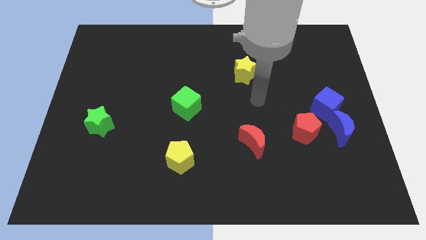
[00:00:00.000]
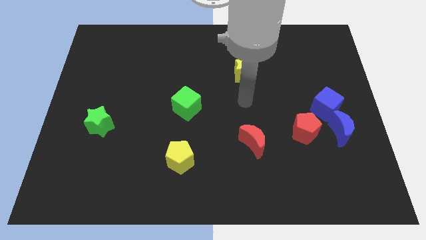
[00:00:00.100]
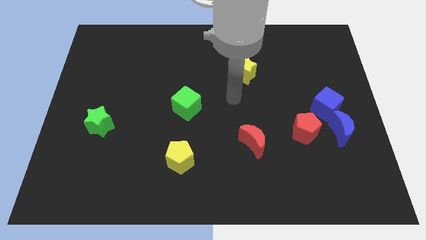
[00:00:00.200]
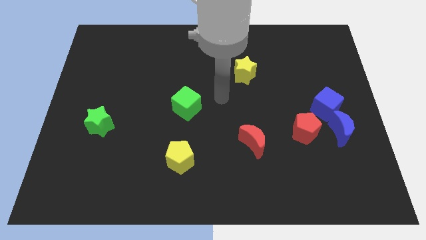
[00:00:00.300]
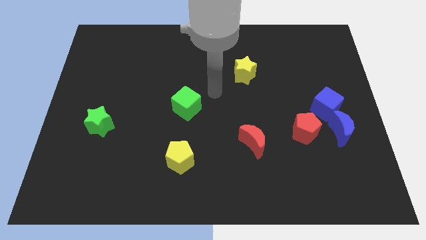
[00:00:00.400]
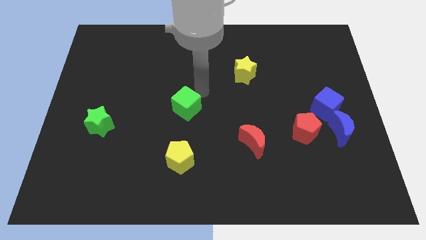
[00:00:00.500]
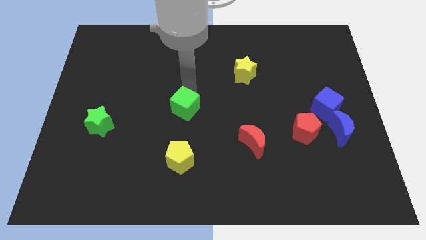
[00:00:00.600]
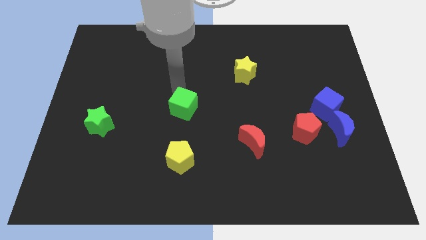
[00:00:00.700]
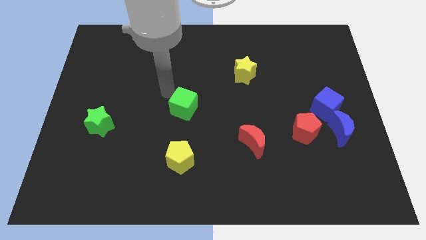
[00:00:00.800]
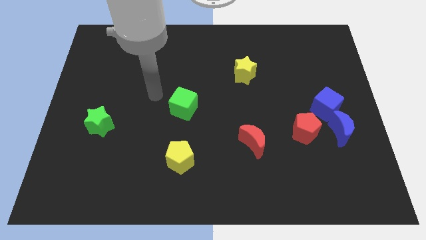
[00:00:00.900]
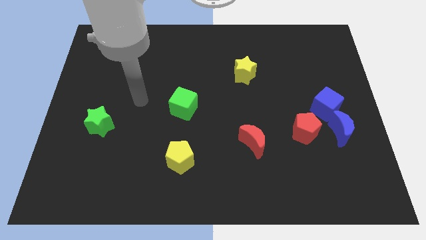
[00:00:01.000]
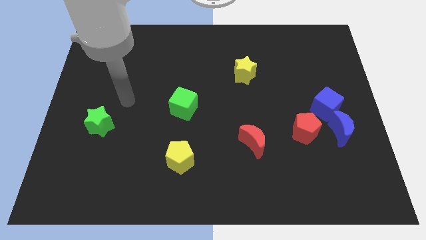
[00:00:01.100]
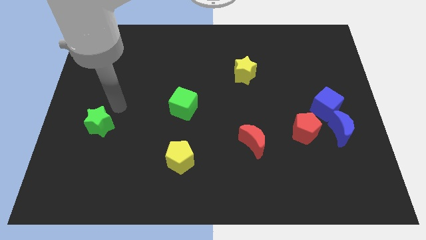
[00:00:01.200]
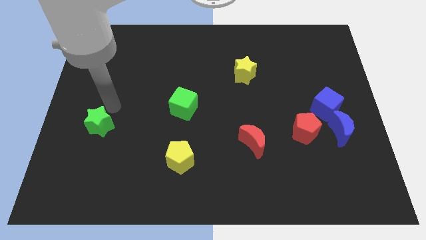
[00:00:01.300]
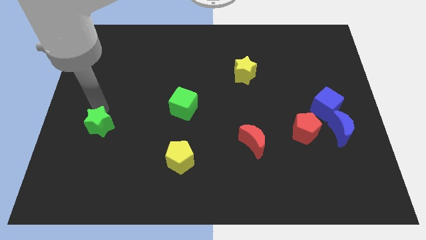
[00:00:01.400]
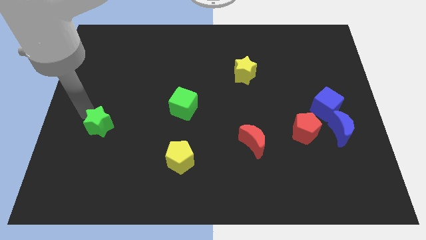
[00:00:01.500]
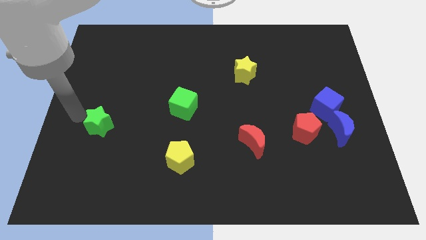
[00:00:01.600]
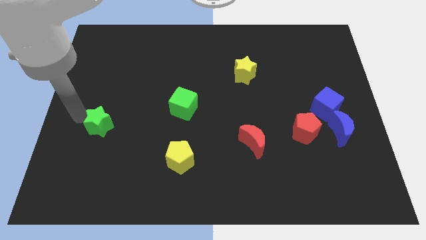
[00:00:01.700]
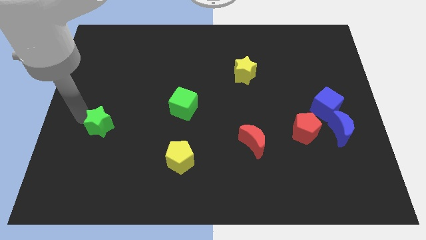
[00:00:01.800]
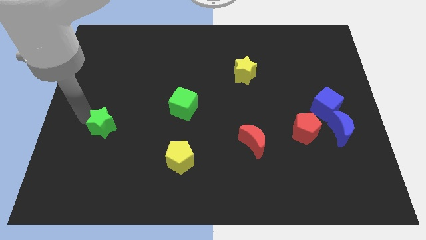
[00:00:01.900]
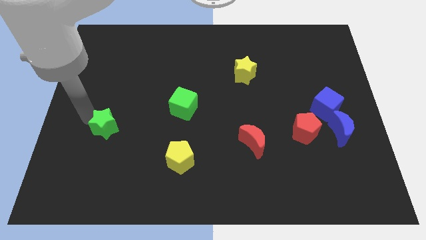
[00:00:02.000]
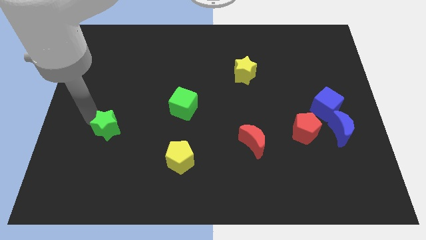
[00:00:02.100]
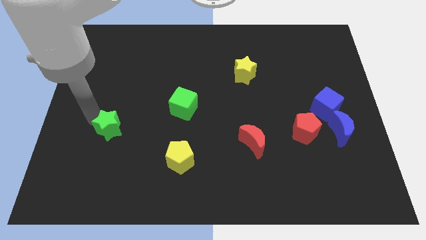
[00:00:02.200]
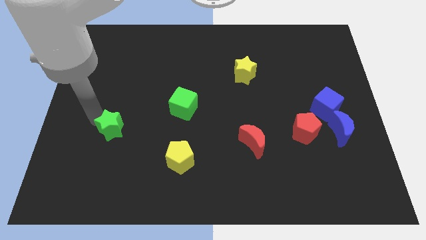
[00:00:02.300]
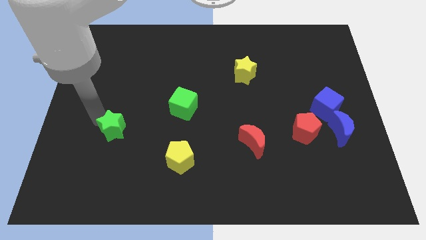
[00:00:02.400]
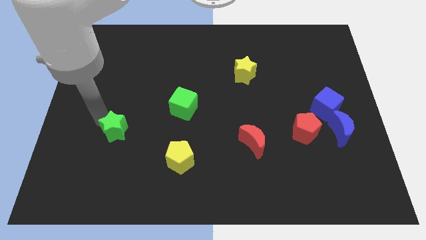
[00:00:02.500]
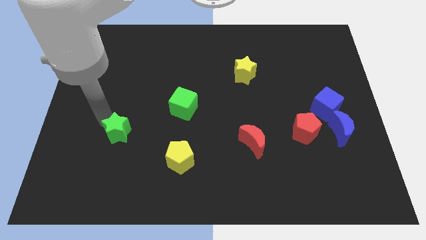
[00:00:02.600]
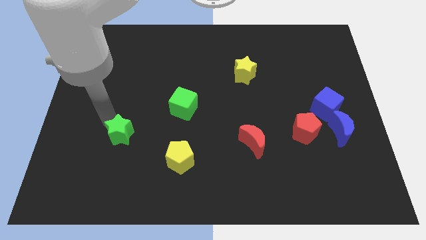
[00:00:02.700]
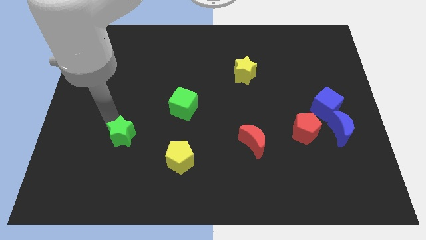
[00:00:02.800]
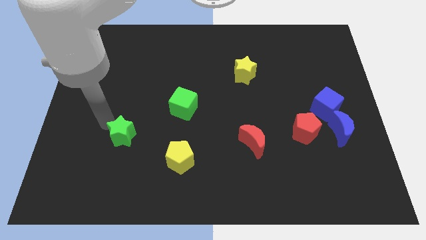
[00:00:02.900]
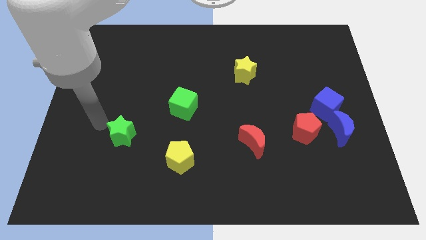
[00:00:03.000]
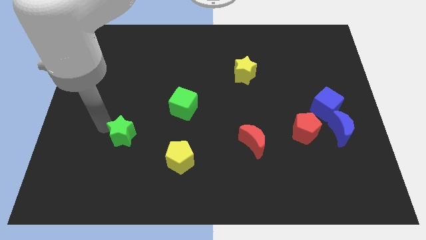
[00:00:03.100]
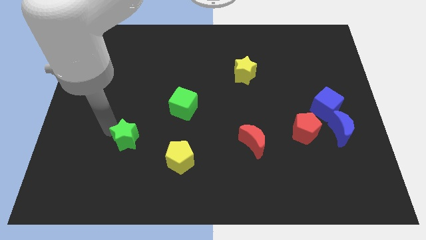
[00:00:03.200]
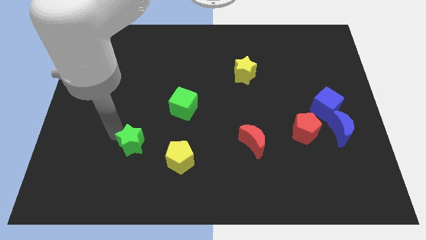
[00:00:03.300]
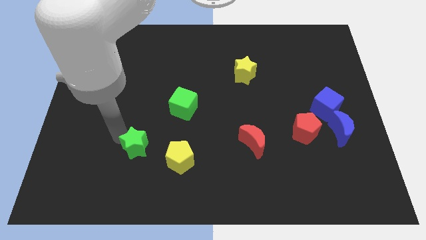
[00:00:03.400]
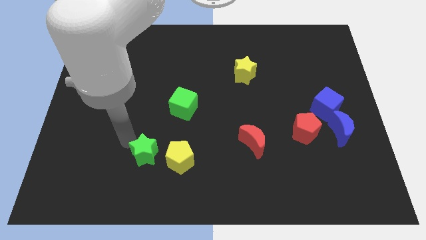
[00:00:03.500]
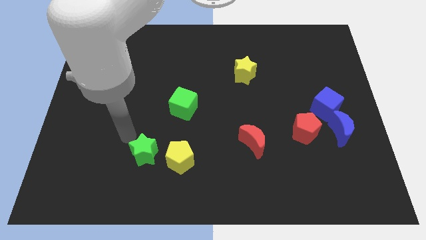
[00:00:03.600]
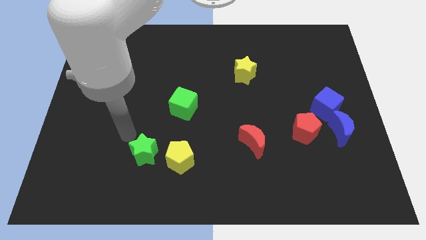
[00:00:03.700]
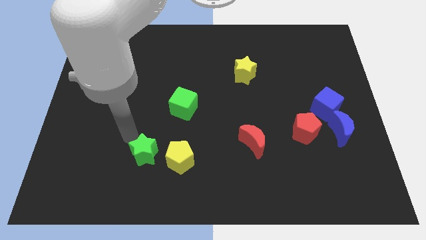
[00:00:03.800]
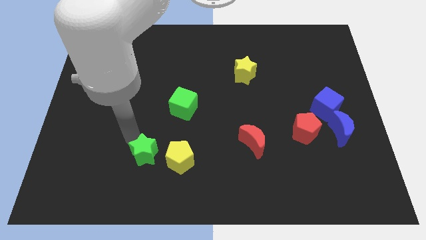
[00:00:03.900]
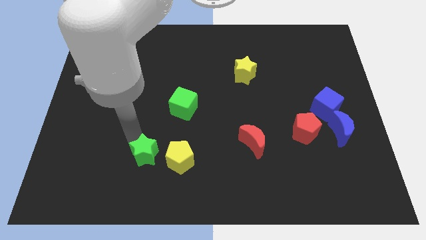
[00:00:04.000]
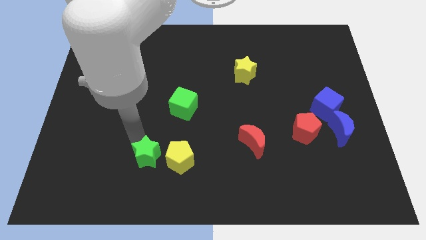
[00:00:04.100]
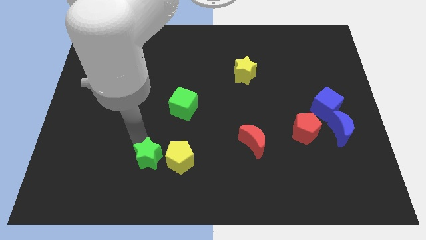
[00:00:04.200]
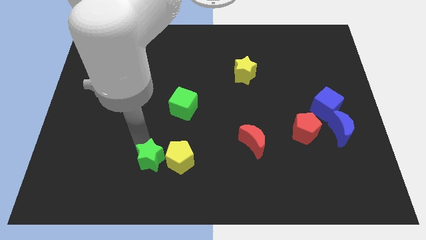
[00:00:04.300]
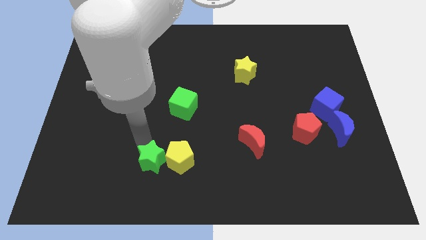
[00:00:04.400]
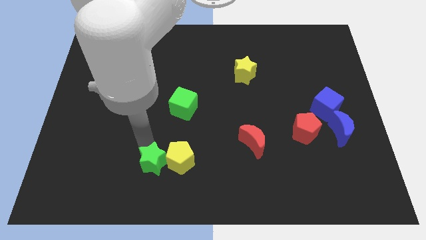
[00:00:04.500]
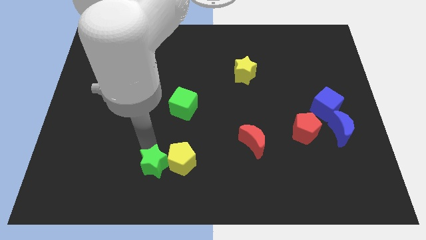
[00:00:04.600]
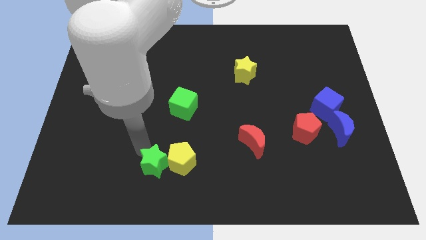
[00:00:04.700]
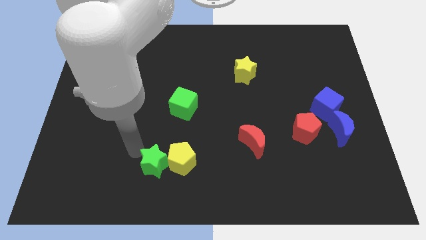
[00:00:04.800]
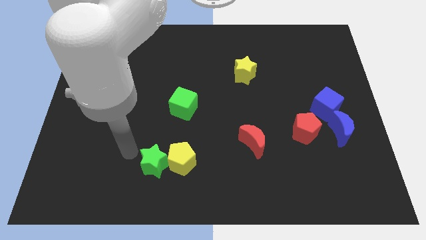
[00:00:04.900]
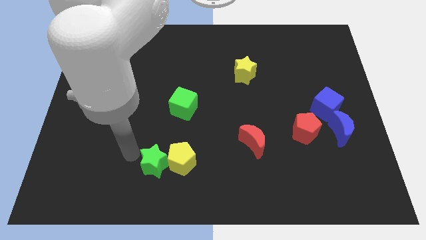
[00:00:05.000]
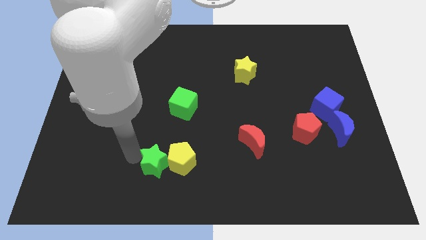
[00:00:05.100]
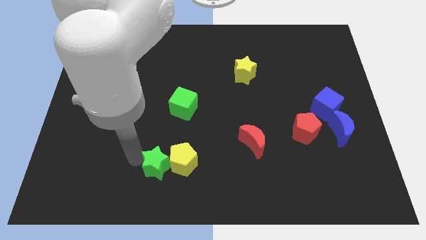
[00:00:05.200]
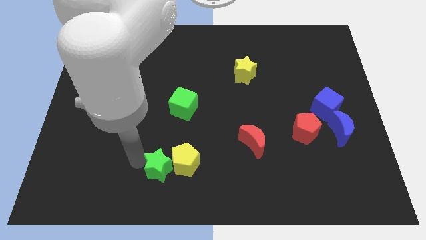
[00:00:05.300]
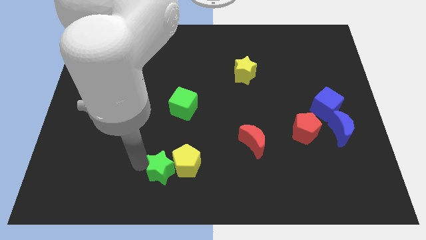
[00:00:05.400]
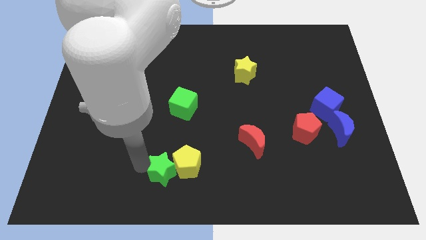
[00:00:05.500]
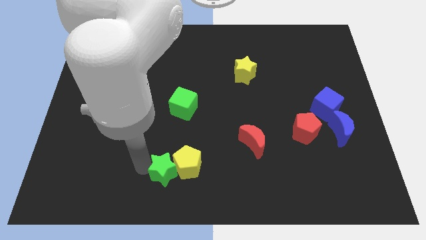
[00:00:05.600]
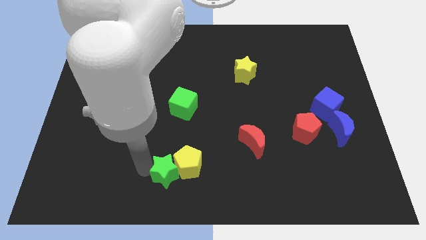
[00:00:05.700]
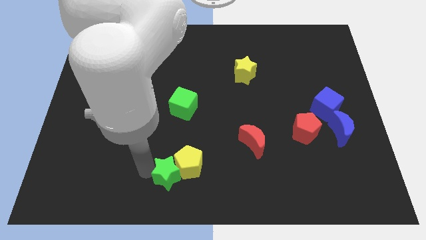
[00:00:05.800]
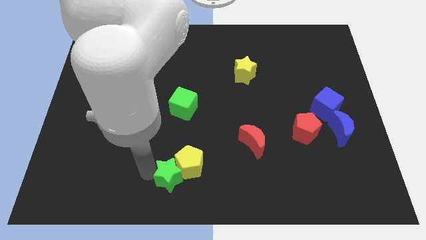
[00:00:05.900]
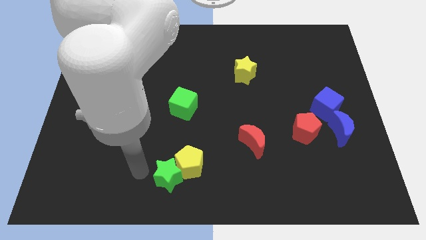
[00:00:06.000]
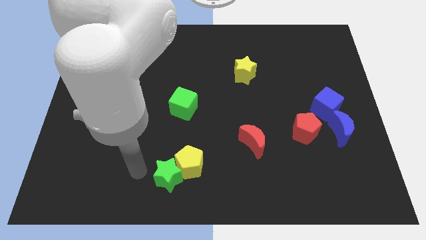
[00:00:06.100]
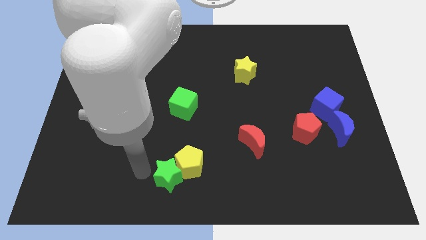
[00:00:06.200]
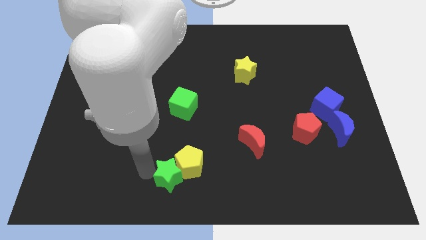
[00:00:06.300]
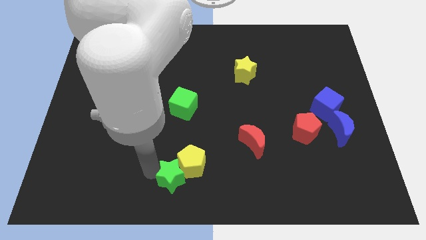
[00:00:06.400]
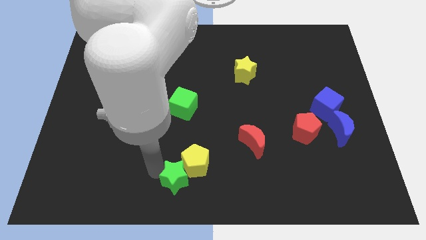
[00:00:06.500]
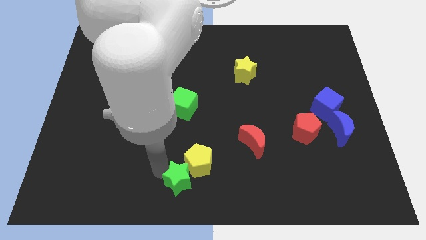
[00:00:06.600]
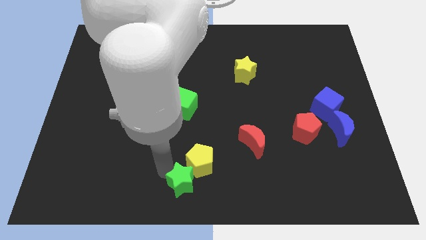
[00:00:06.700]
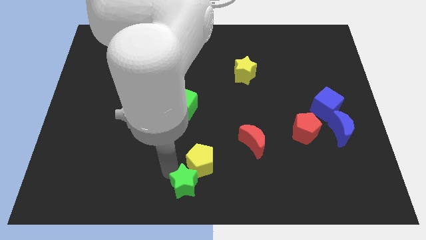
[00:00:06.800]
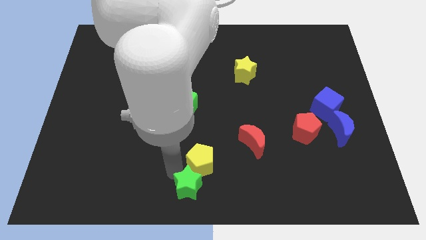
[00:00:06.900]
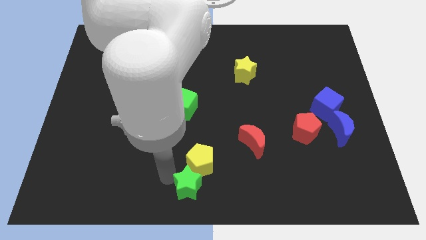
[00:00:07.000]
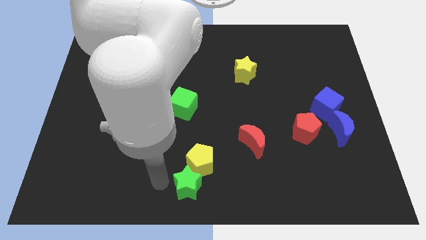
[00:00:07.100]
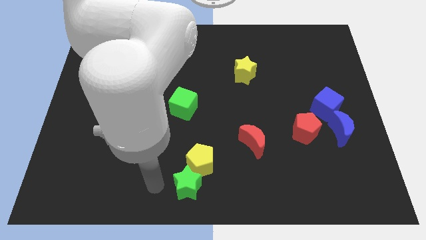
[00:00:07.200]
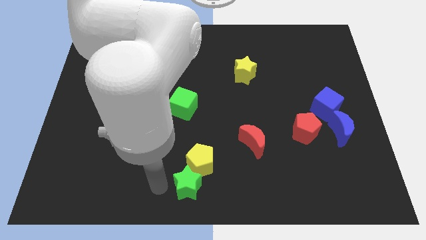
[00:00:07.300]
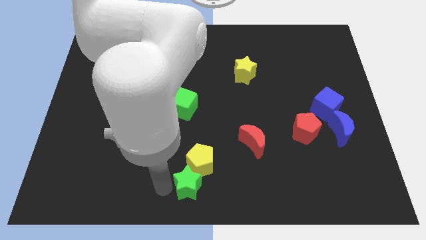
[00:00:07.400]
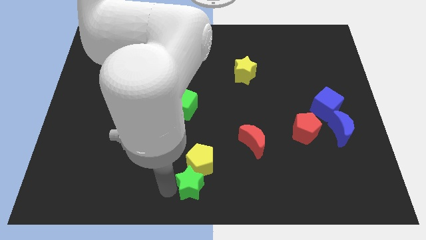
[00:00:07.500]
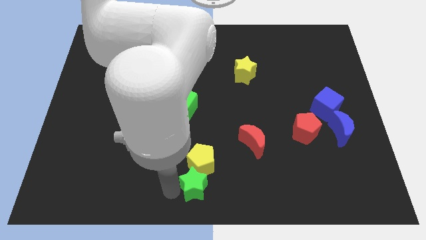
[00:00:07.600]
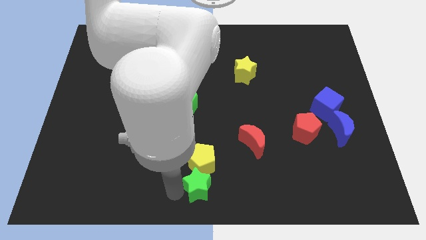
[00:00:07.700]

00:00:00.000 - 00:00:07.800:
put the green star diagonally down and to the right of the yellow pentagon
